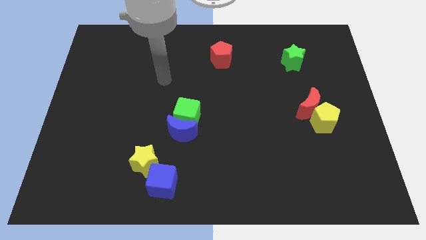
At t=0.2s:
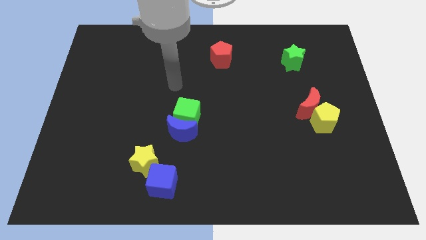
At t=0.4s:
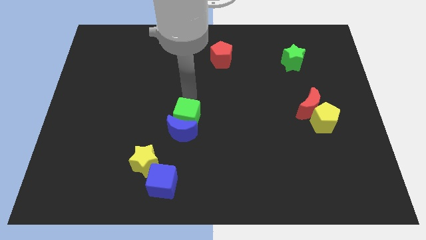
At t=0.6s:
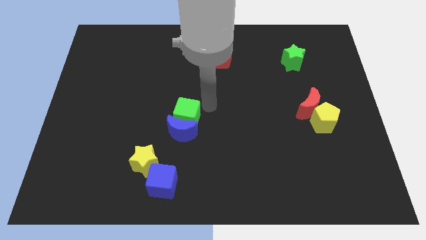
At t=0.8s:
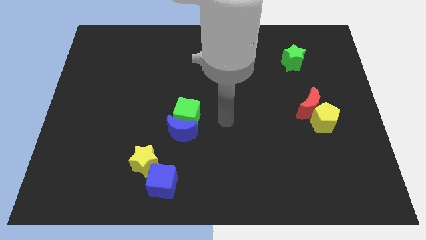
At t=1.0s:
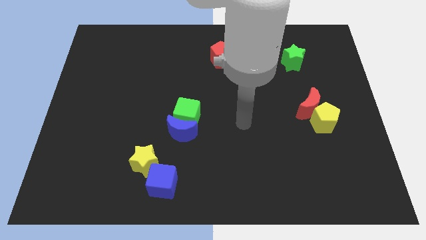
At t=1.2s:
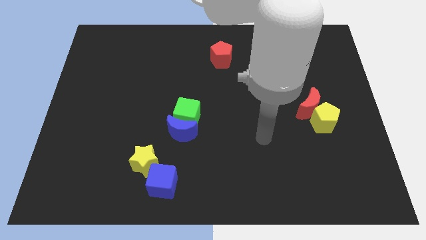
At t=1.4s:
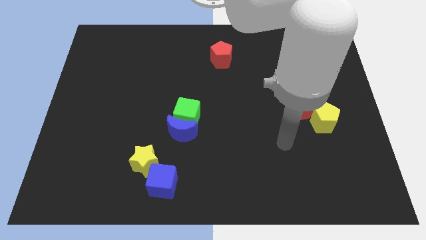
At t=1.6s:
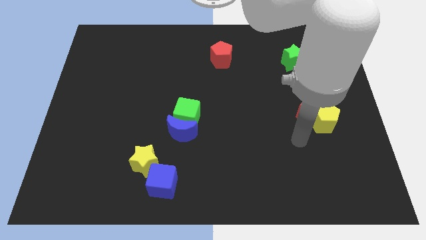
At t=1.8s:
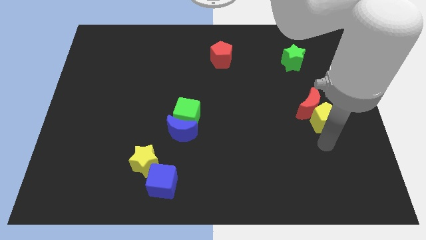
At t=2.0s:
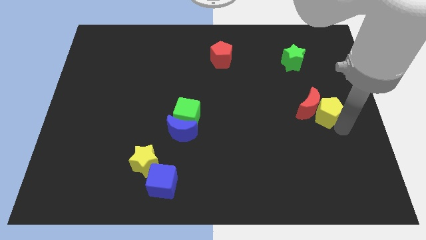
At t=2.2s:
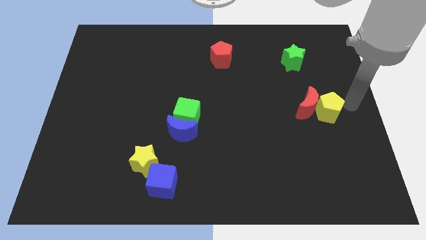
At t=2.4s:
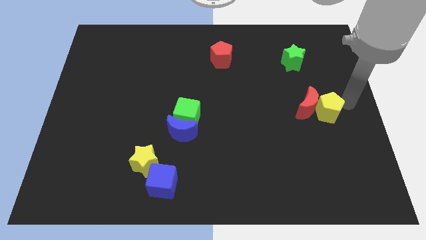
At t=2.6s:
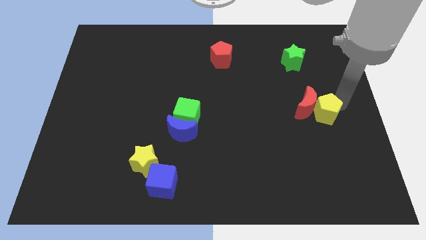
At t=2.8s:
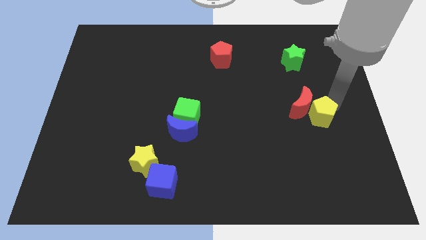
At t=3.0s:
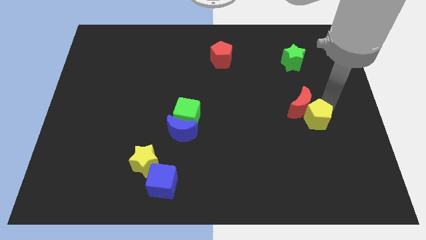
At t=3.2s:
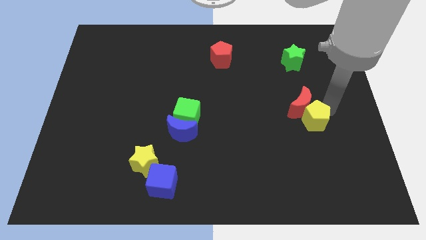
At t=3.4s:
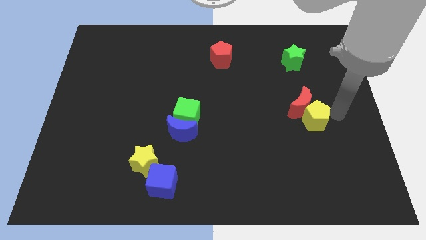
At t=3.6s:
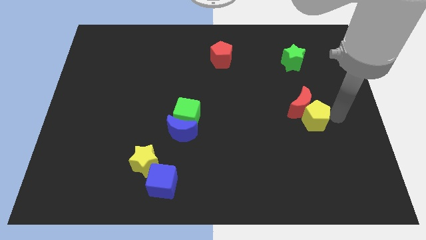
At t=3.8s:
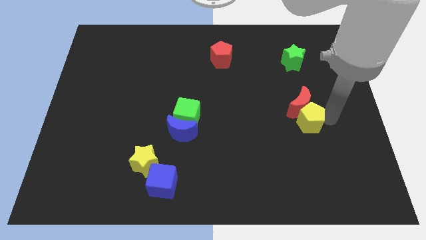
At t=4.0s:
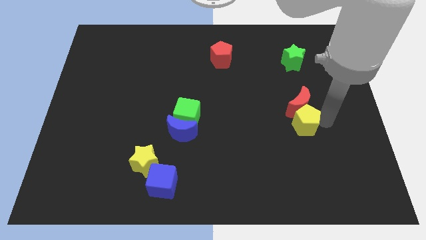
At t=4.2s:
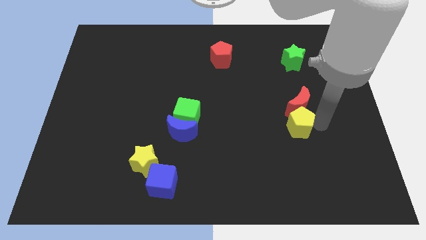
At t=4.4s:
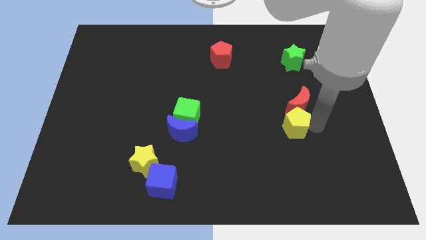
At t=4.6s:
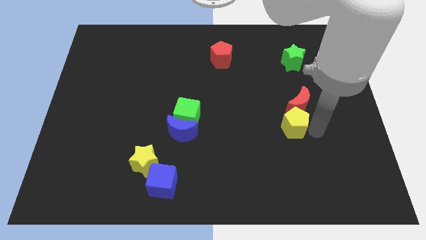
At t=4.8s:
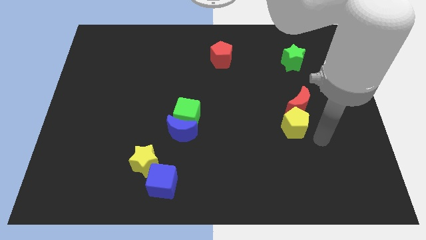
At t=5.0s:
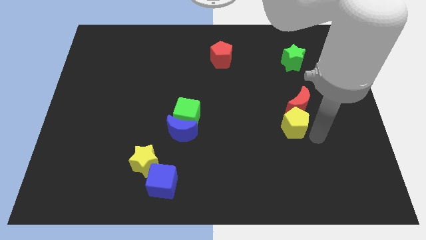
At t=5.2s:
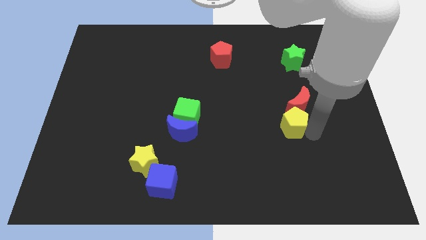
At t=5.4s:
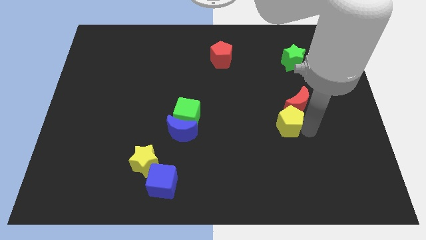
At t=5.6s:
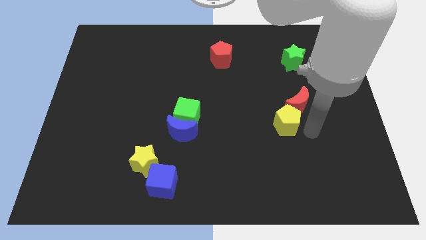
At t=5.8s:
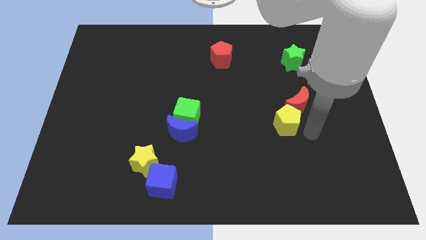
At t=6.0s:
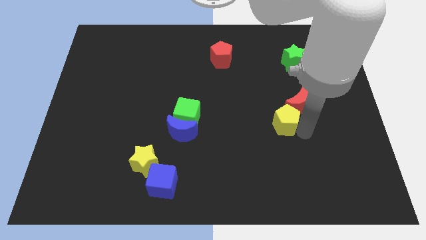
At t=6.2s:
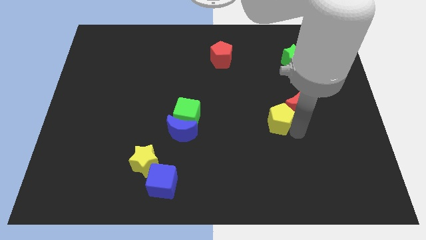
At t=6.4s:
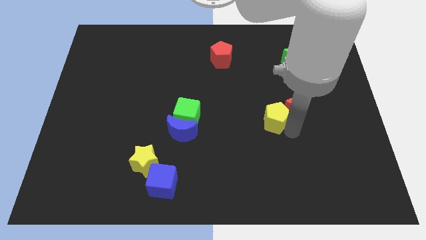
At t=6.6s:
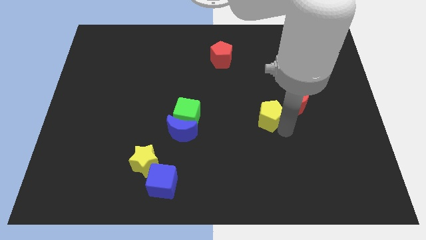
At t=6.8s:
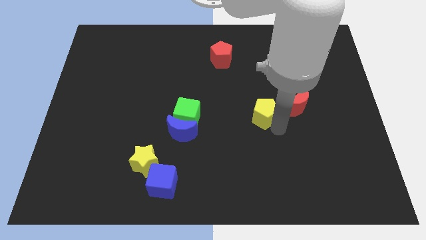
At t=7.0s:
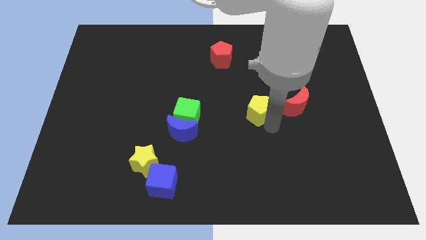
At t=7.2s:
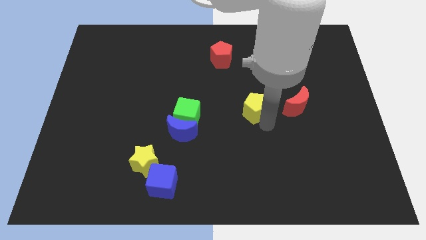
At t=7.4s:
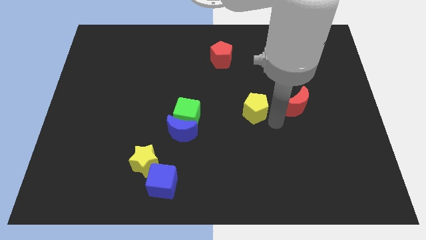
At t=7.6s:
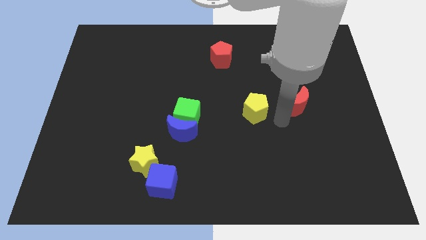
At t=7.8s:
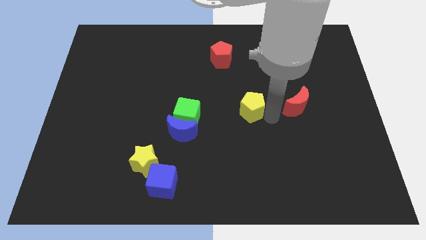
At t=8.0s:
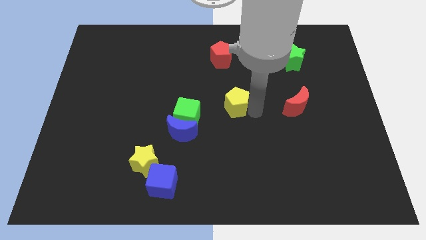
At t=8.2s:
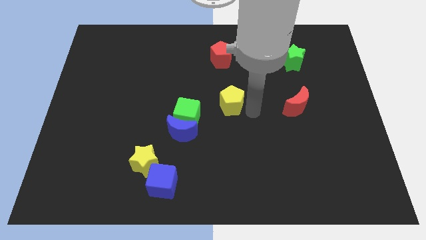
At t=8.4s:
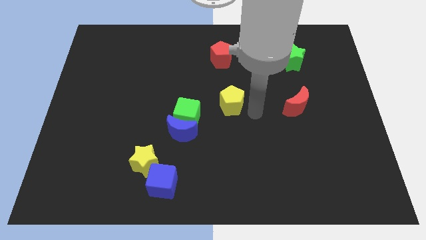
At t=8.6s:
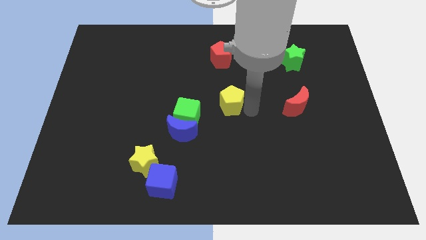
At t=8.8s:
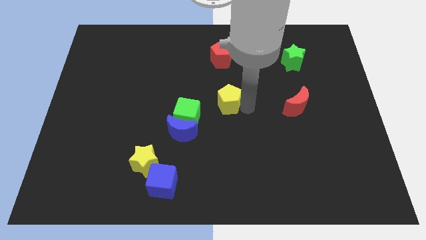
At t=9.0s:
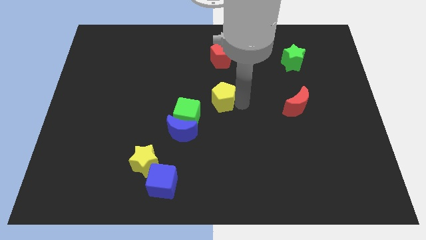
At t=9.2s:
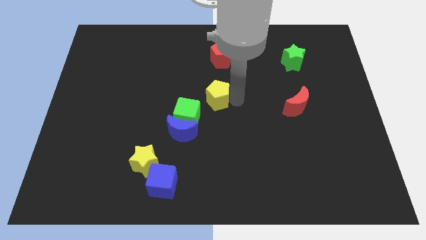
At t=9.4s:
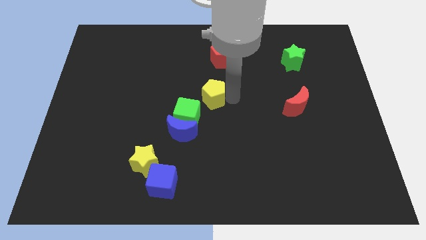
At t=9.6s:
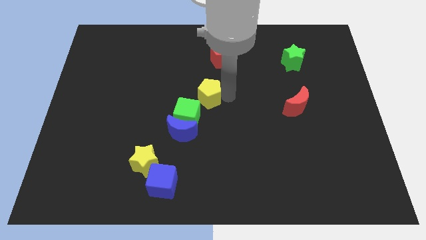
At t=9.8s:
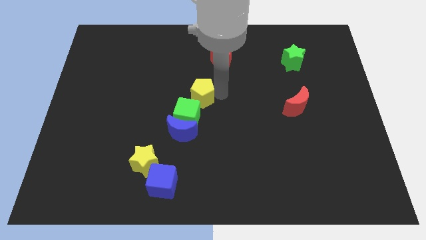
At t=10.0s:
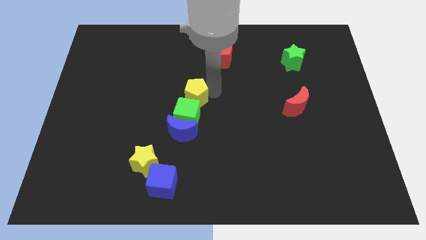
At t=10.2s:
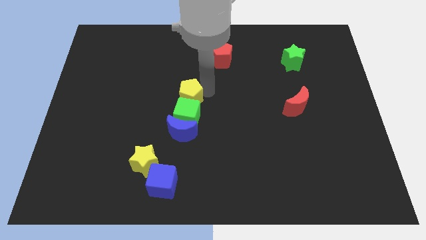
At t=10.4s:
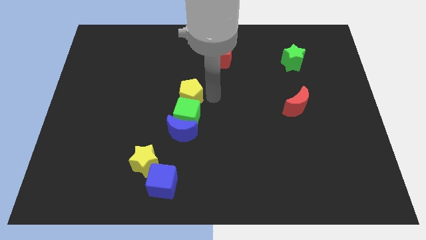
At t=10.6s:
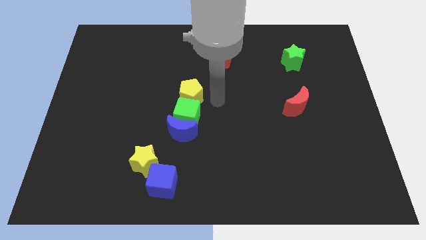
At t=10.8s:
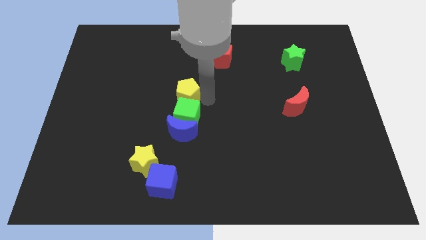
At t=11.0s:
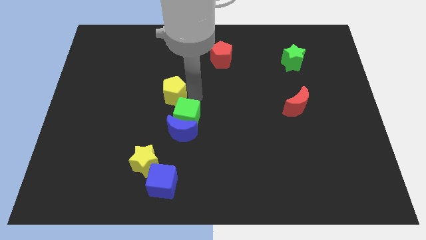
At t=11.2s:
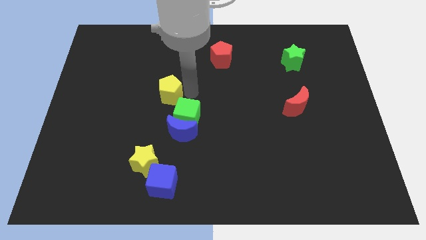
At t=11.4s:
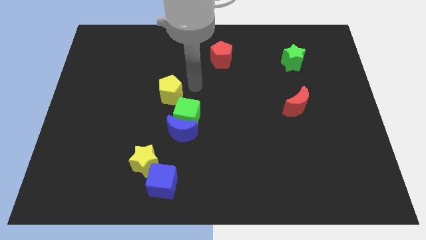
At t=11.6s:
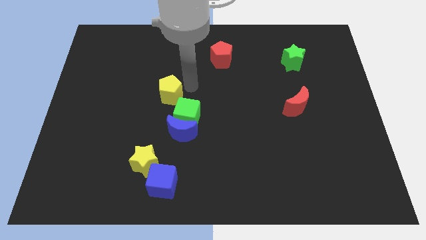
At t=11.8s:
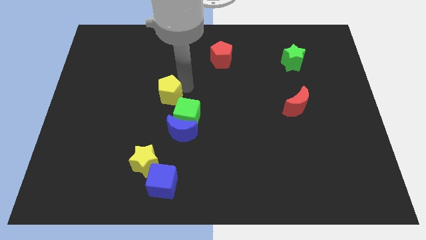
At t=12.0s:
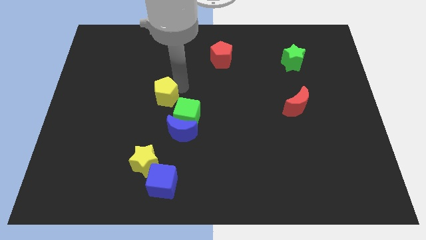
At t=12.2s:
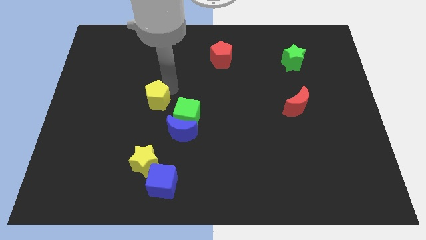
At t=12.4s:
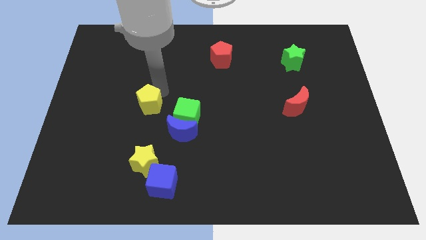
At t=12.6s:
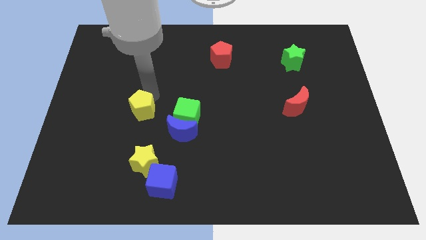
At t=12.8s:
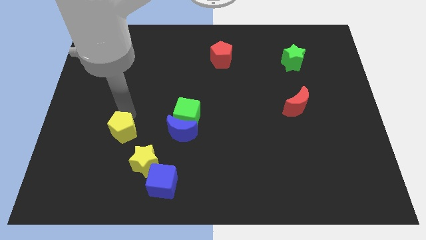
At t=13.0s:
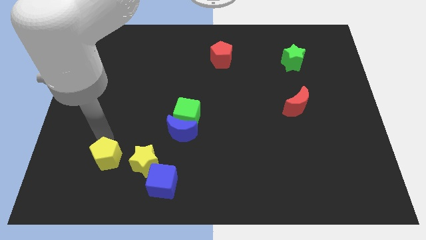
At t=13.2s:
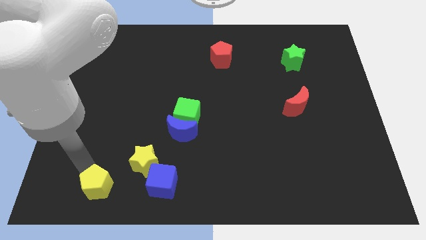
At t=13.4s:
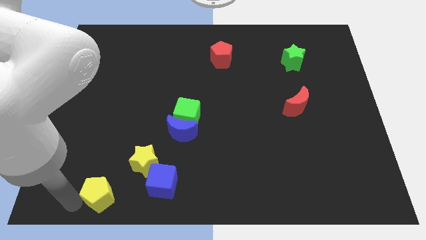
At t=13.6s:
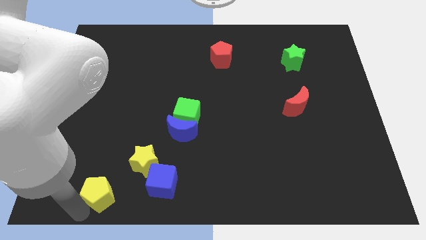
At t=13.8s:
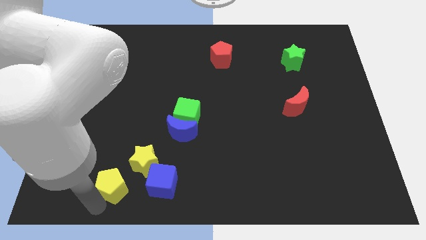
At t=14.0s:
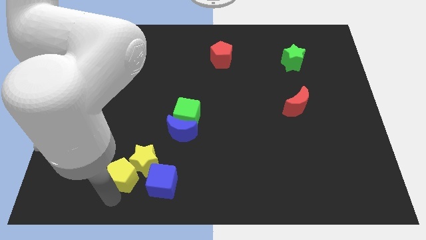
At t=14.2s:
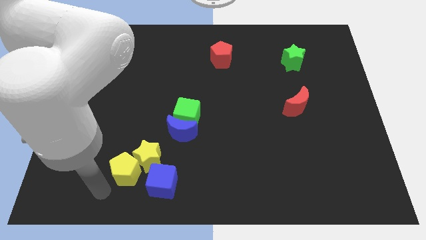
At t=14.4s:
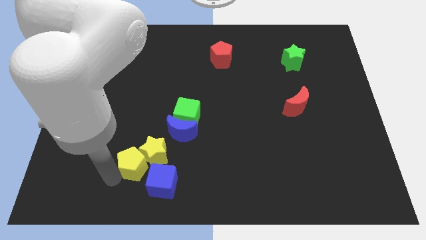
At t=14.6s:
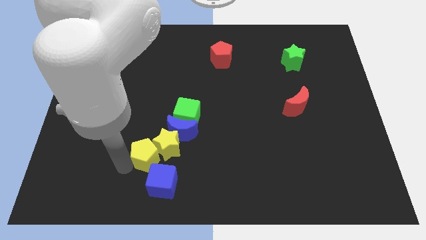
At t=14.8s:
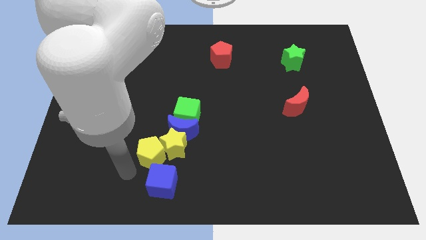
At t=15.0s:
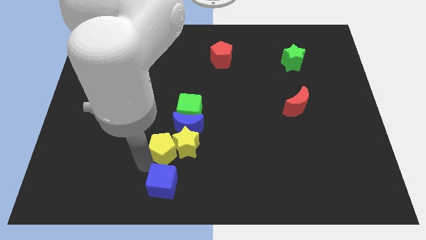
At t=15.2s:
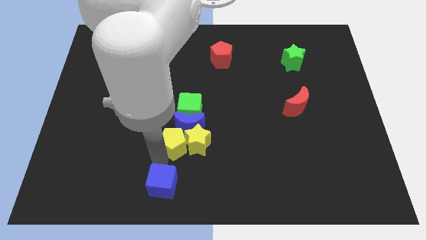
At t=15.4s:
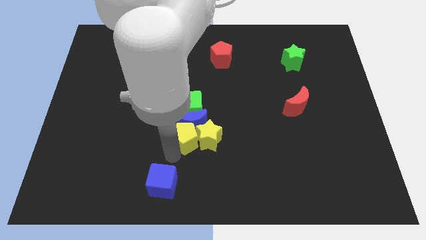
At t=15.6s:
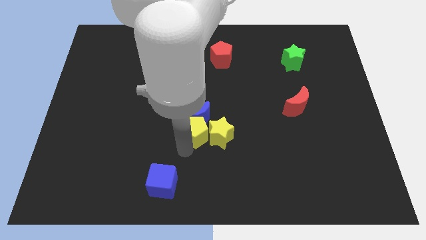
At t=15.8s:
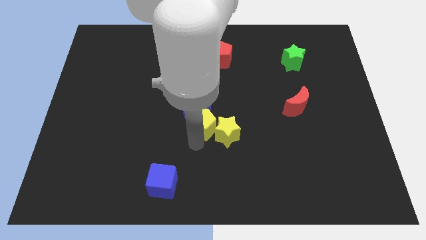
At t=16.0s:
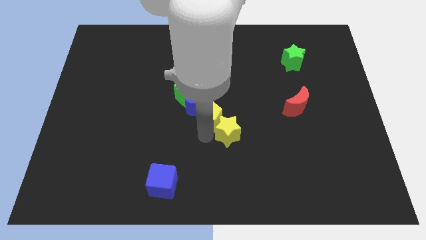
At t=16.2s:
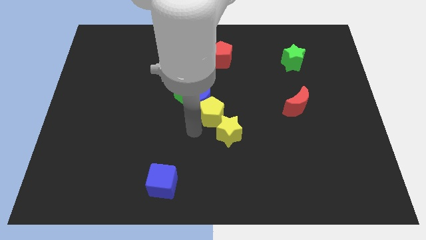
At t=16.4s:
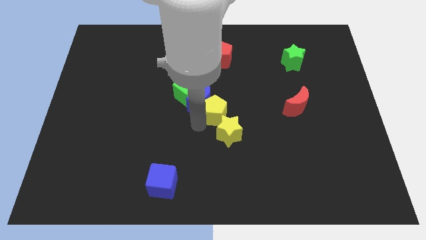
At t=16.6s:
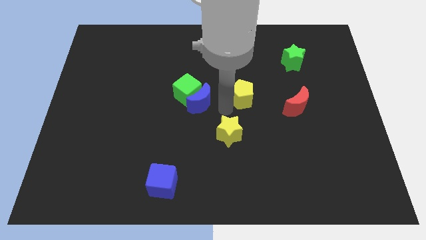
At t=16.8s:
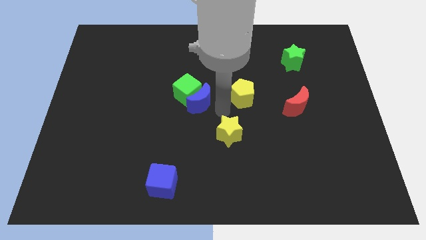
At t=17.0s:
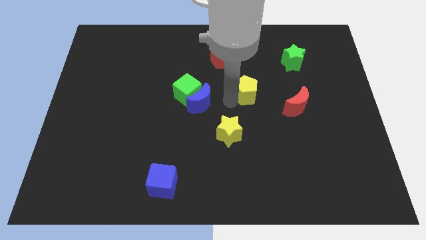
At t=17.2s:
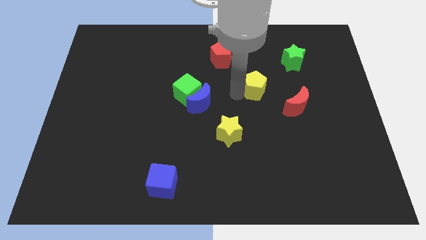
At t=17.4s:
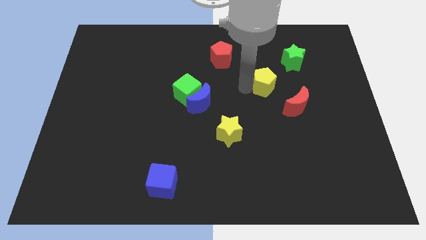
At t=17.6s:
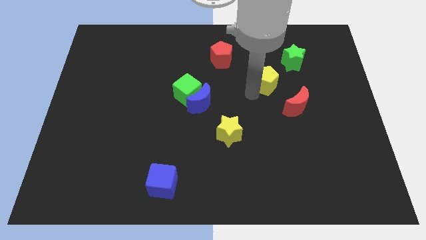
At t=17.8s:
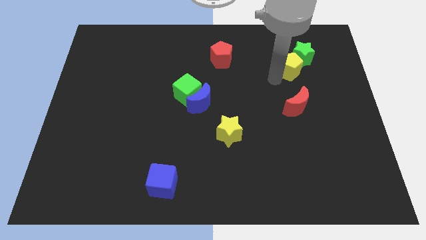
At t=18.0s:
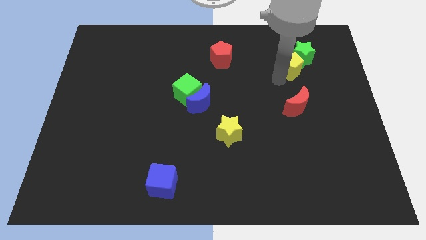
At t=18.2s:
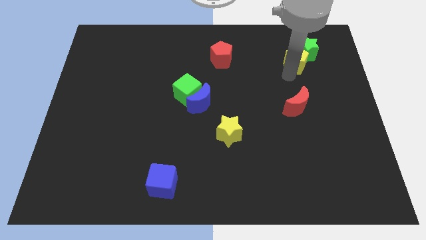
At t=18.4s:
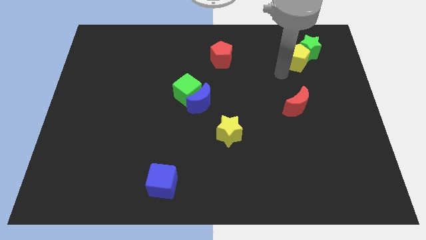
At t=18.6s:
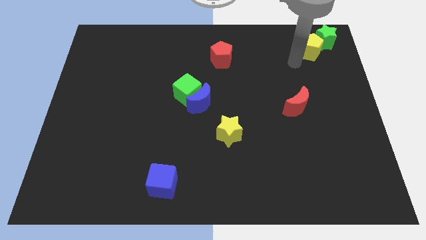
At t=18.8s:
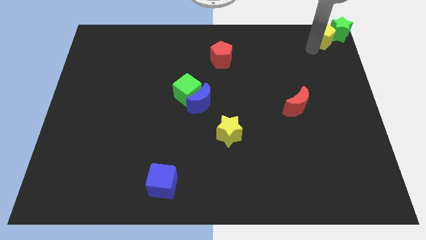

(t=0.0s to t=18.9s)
push the yellow pentagon to the upper right corner
